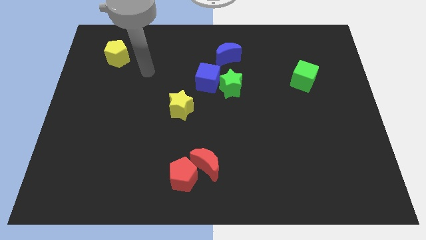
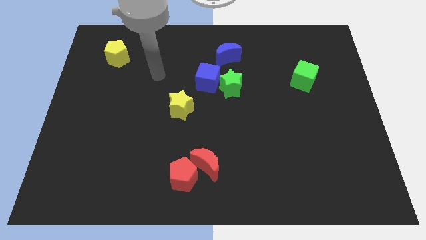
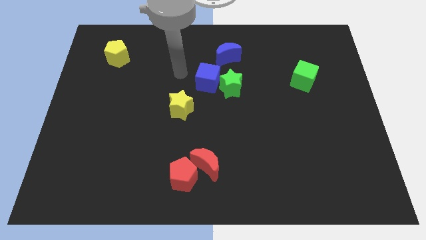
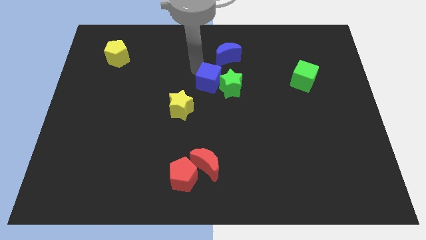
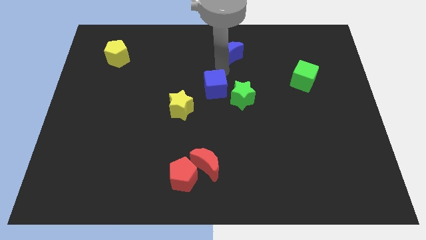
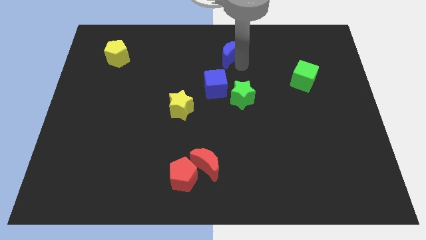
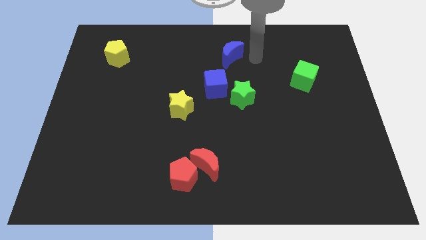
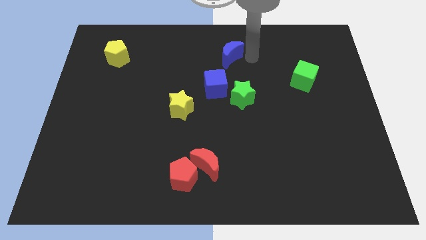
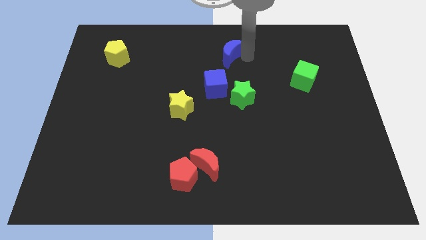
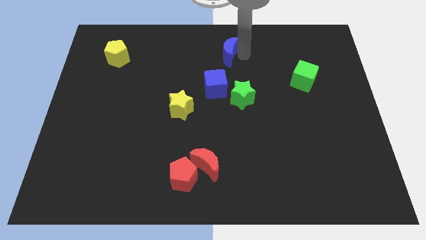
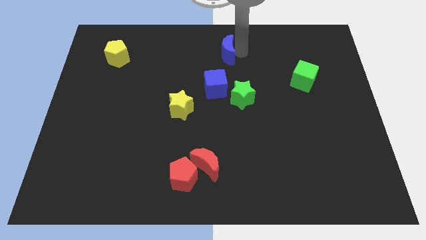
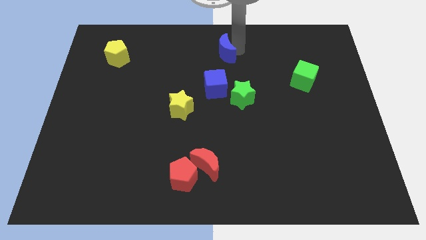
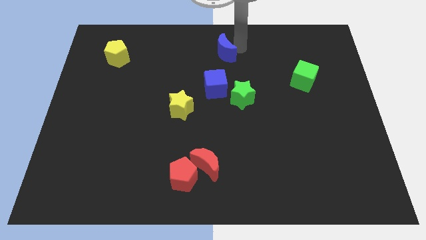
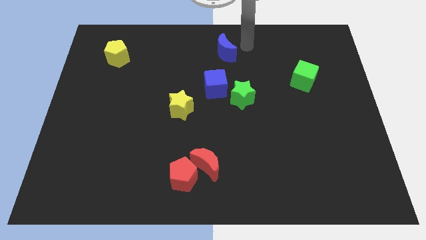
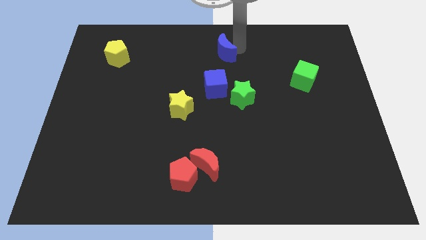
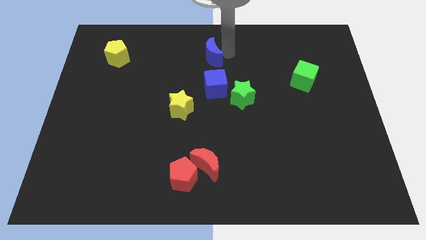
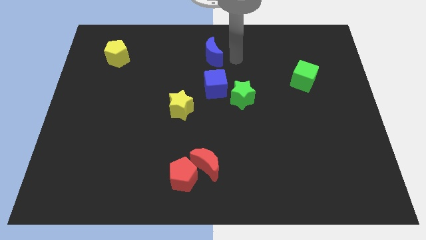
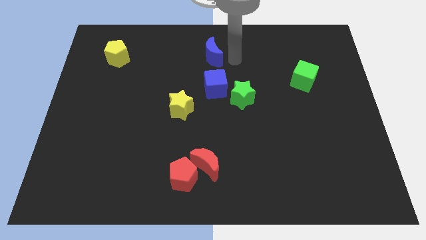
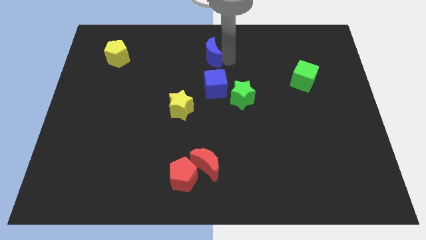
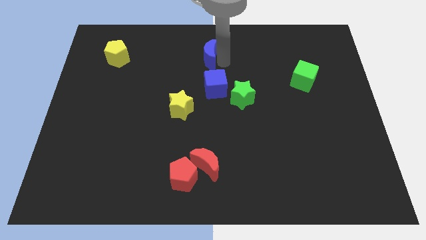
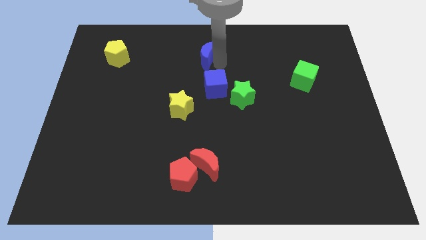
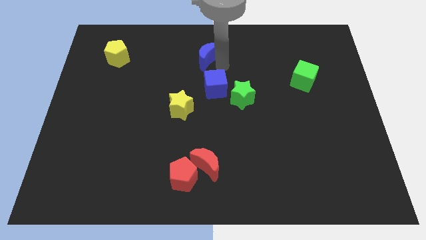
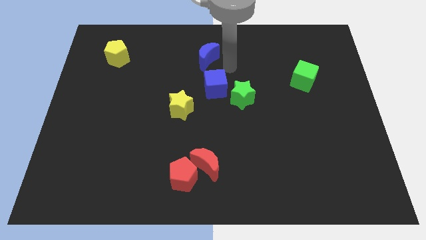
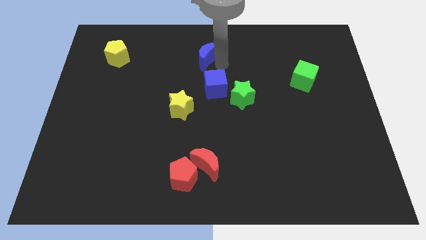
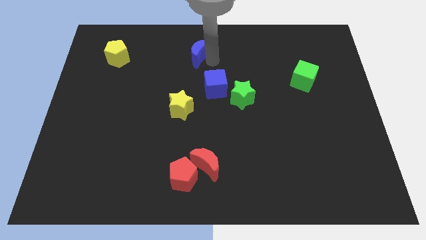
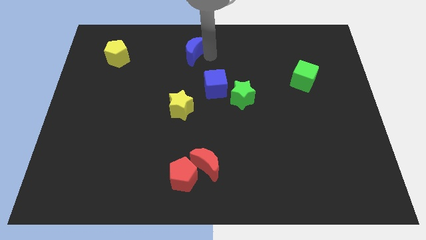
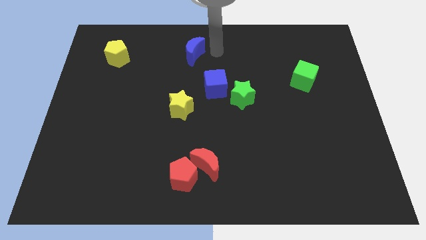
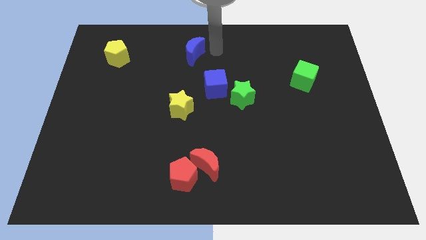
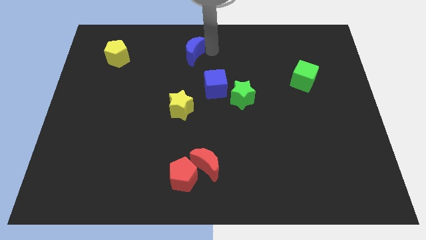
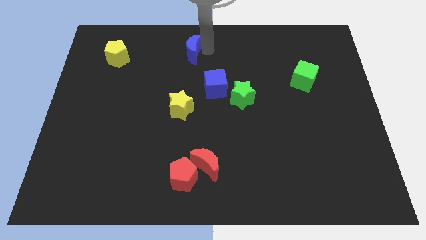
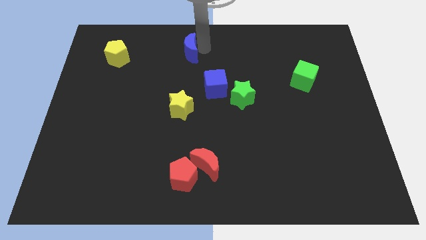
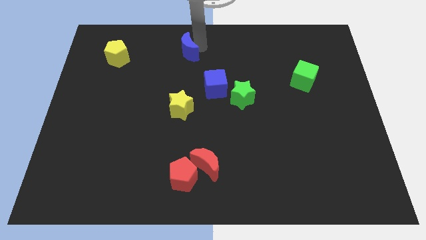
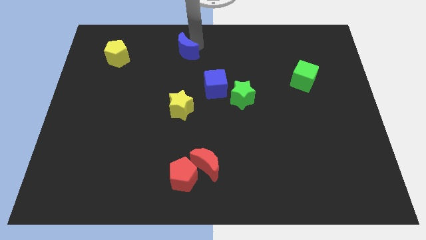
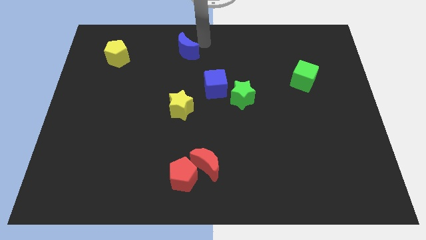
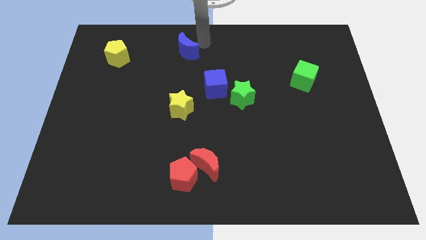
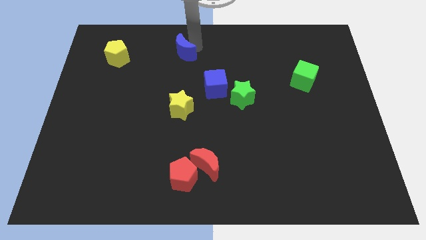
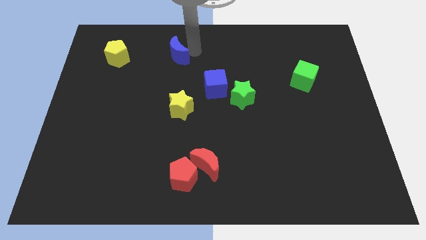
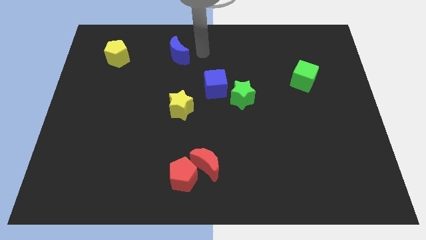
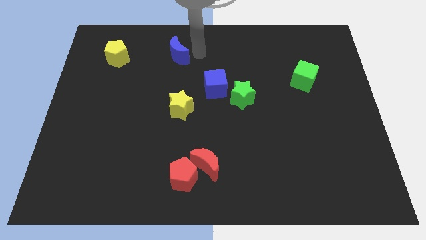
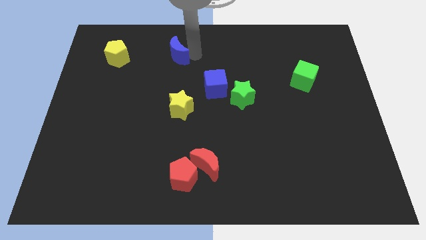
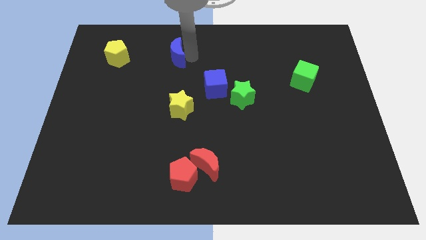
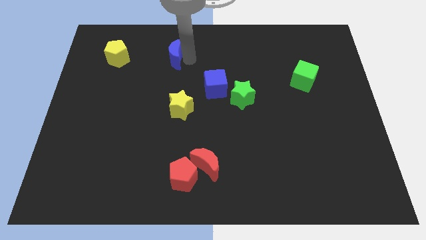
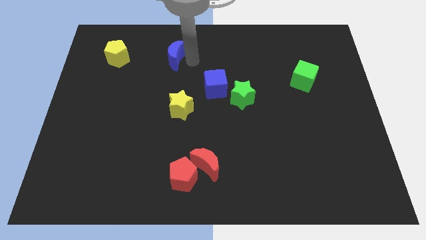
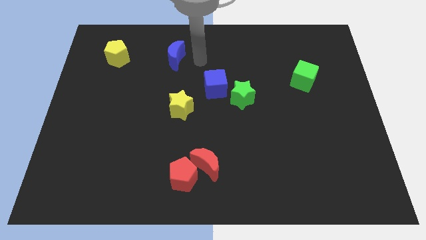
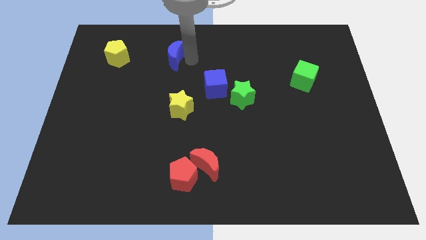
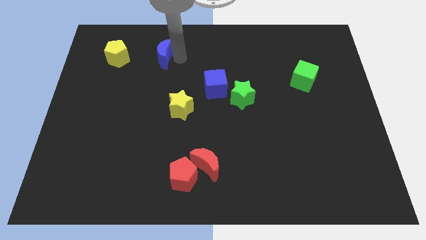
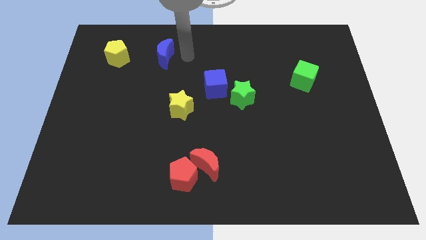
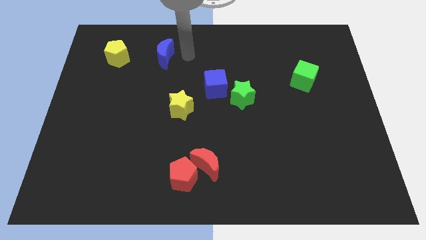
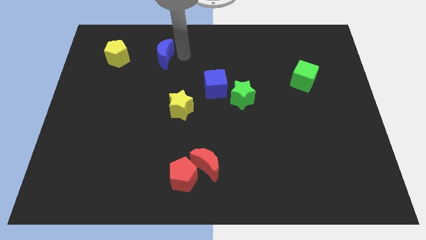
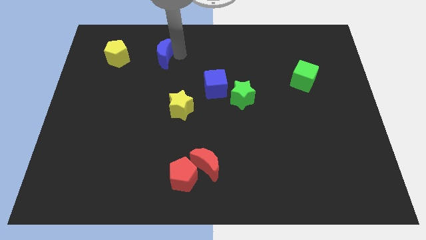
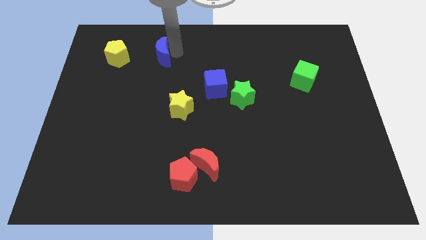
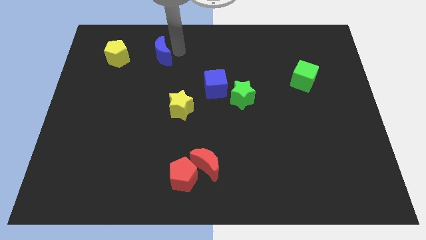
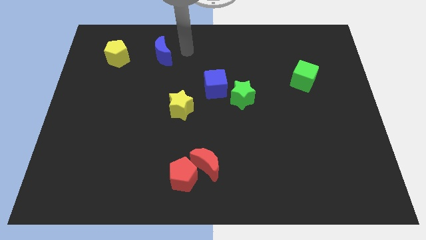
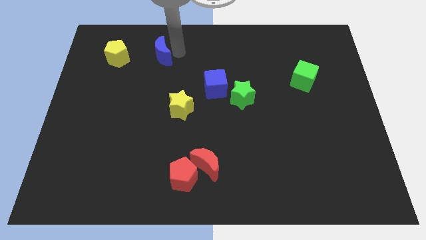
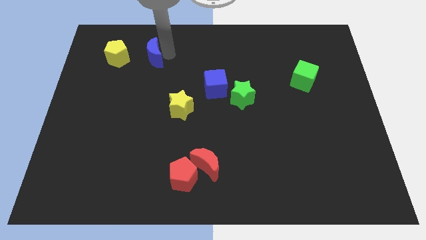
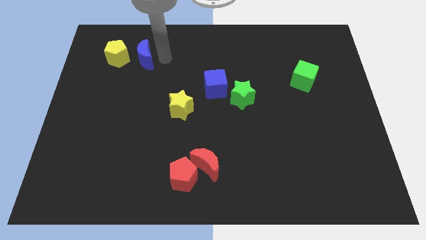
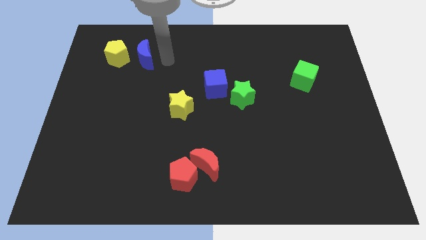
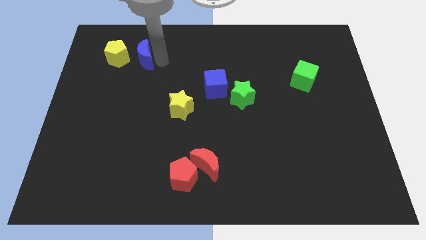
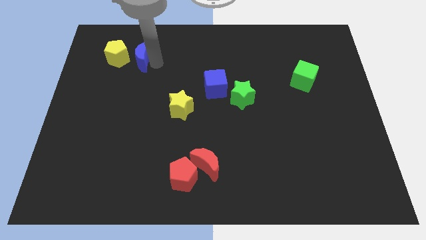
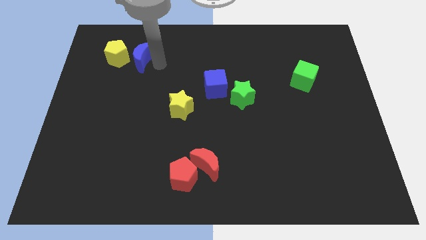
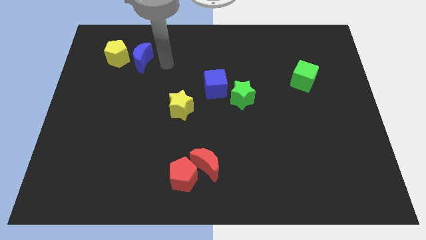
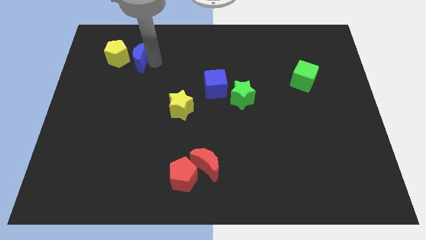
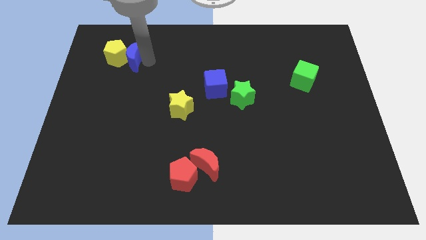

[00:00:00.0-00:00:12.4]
slide the blue moon next to the yellow pentagon

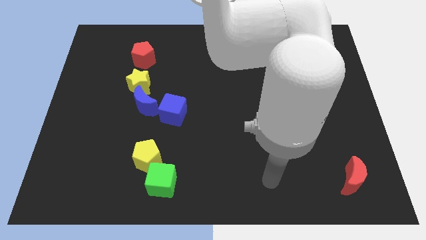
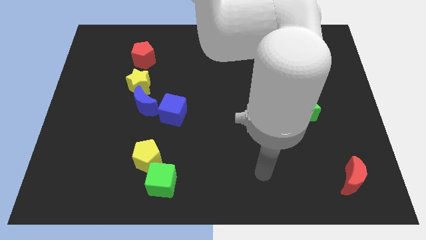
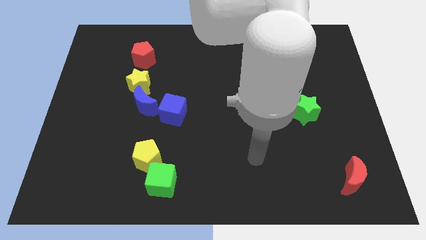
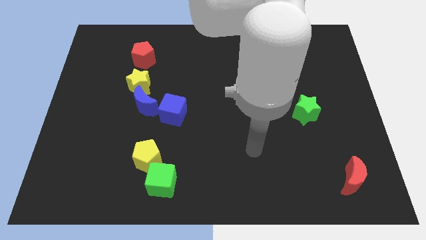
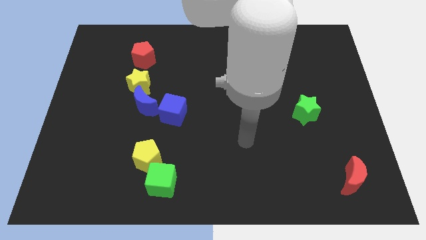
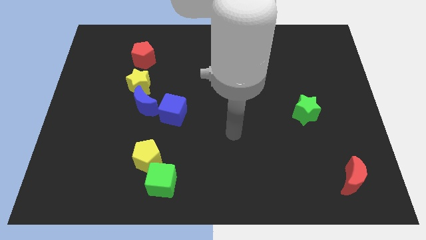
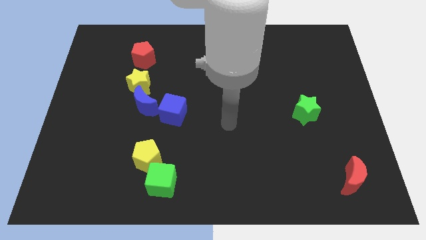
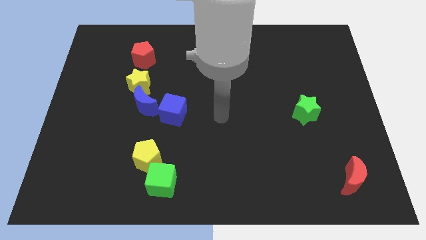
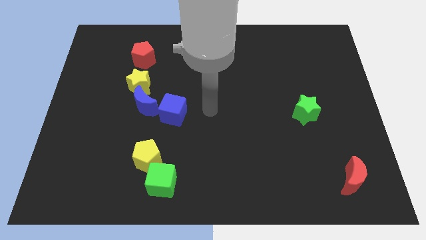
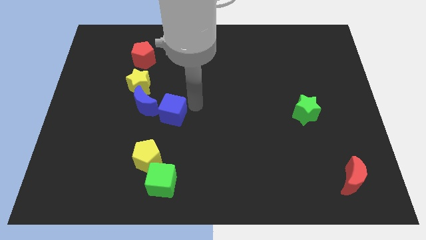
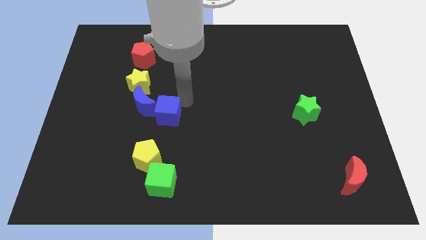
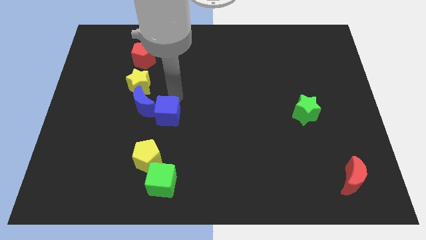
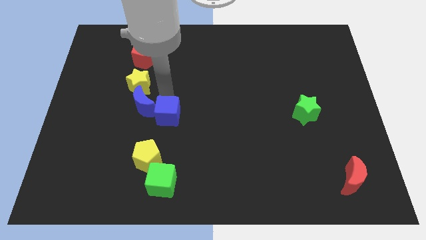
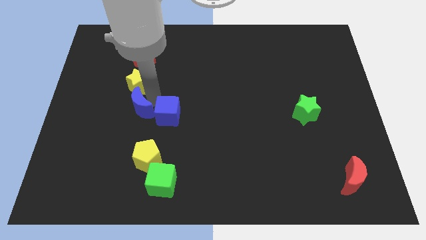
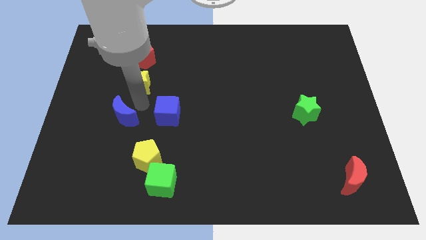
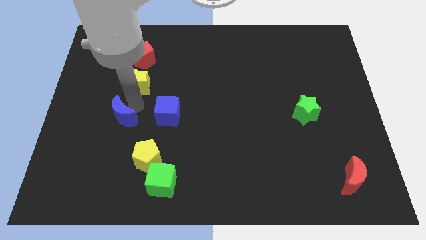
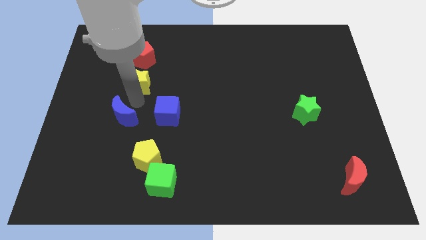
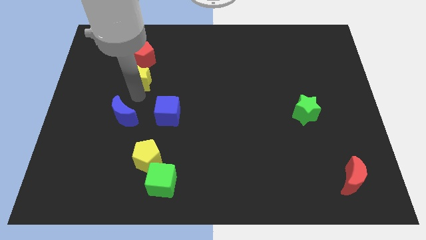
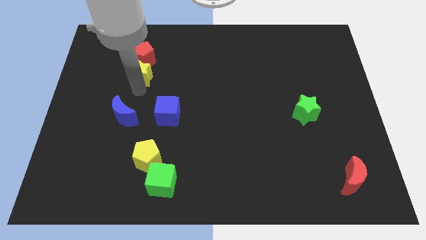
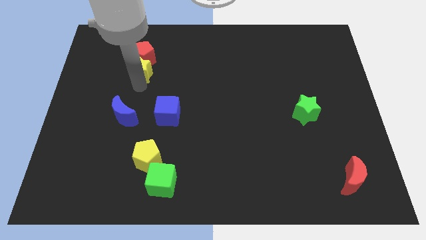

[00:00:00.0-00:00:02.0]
move the yellow star towards the red pentagon

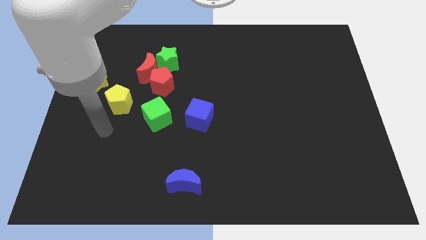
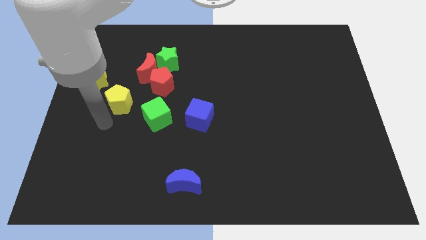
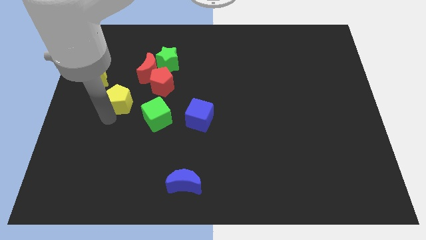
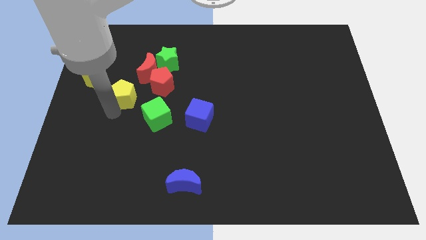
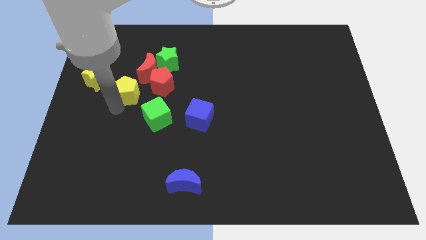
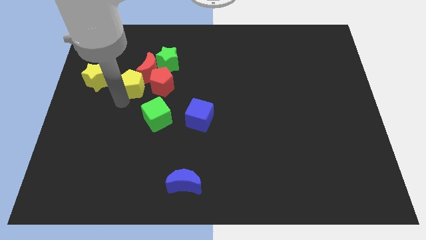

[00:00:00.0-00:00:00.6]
slide the yellow pentagon to the red moon
